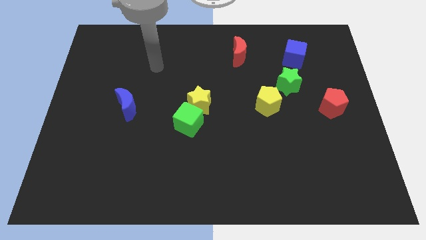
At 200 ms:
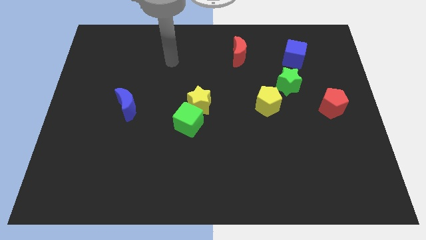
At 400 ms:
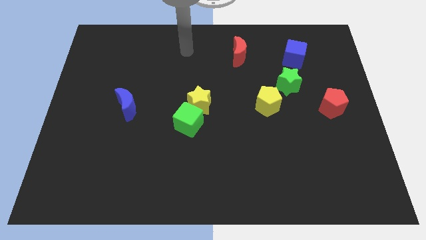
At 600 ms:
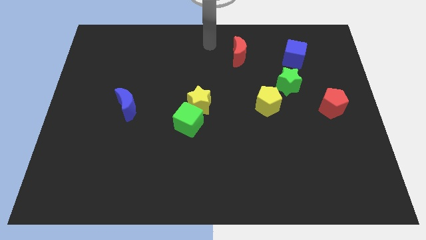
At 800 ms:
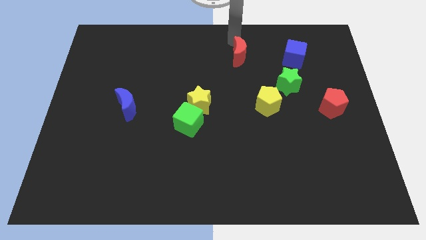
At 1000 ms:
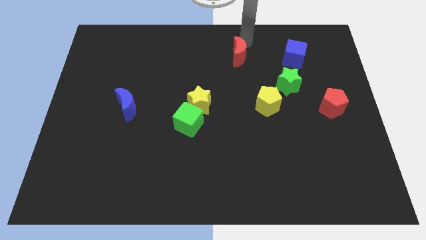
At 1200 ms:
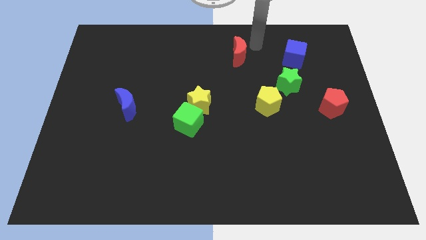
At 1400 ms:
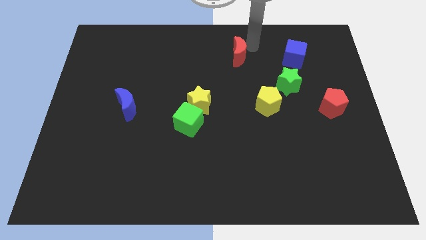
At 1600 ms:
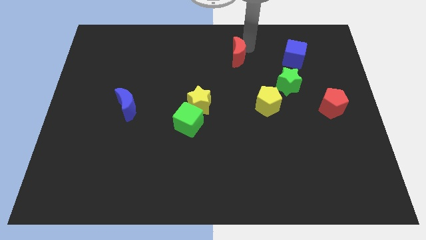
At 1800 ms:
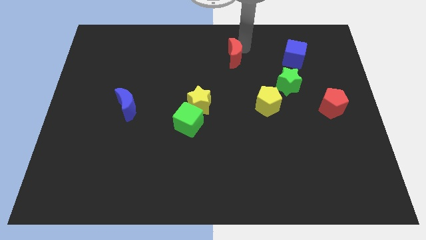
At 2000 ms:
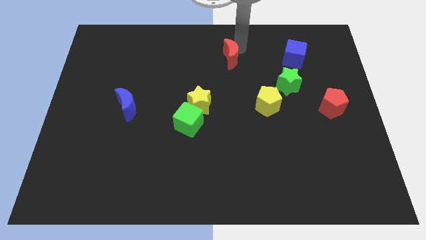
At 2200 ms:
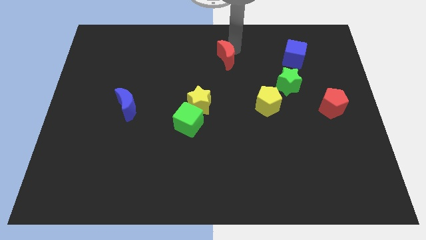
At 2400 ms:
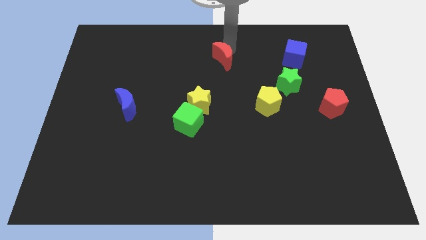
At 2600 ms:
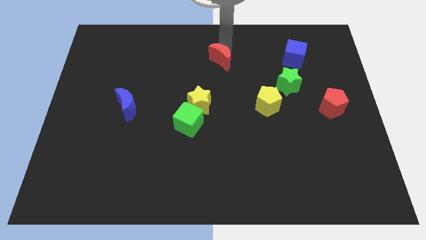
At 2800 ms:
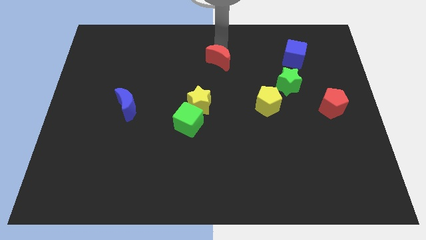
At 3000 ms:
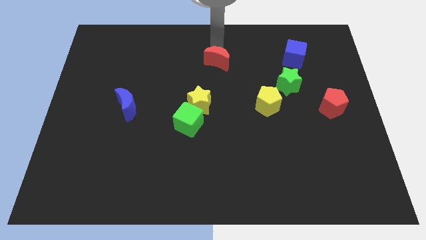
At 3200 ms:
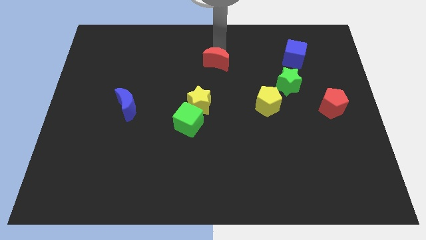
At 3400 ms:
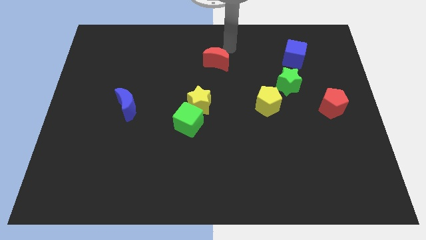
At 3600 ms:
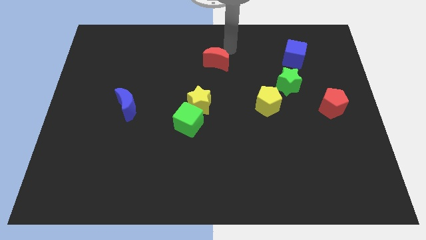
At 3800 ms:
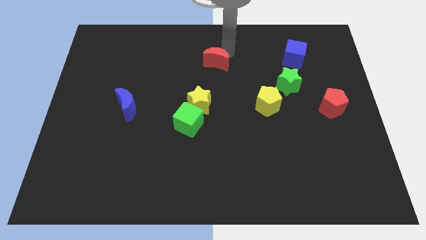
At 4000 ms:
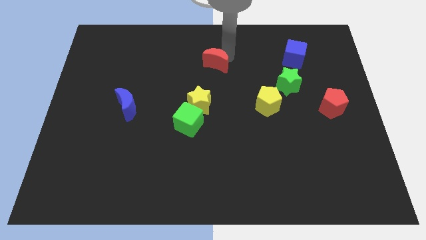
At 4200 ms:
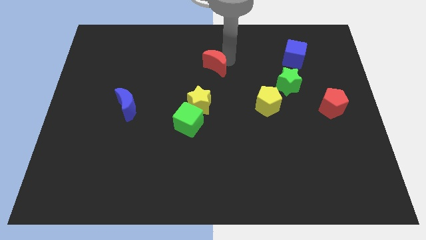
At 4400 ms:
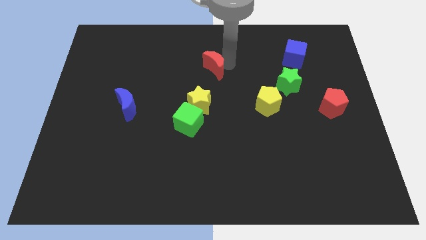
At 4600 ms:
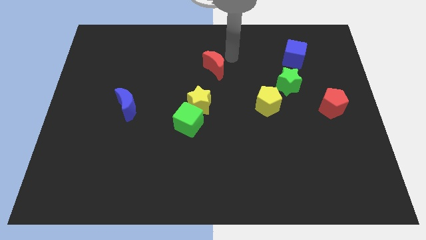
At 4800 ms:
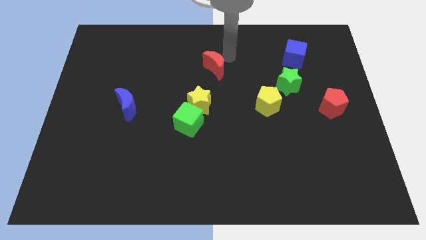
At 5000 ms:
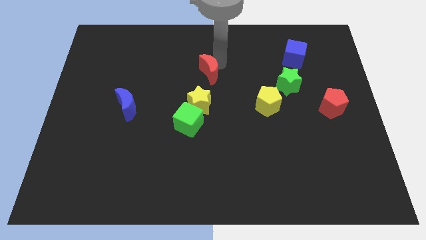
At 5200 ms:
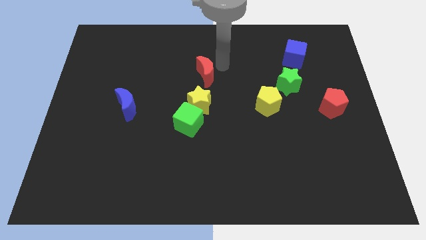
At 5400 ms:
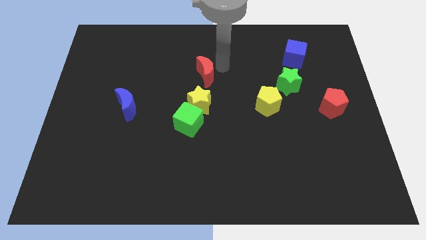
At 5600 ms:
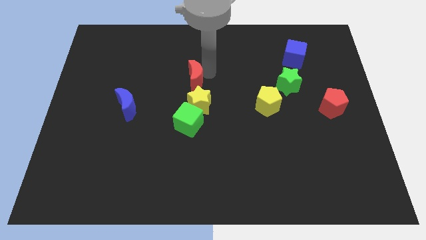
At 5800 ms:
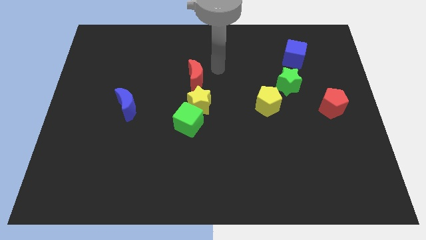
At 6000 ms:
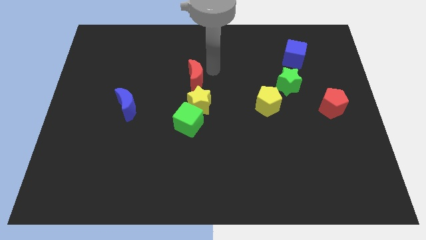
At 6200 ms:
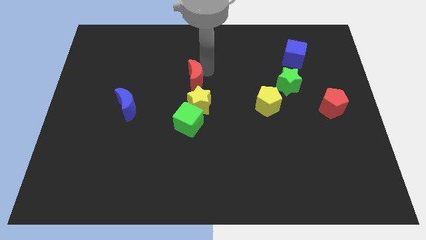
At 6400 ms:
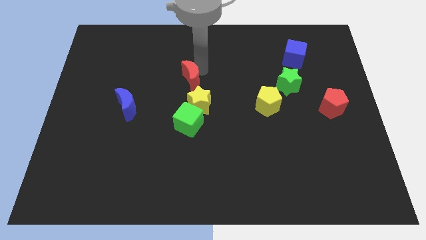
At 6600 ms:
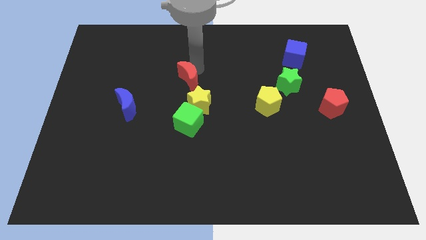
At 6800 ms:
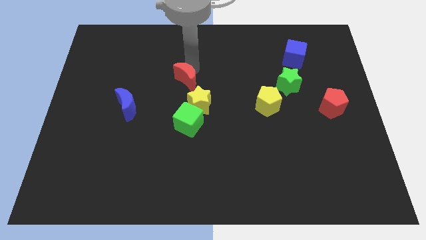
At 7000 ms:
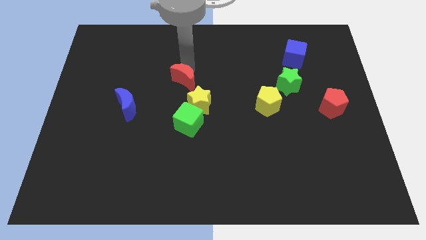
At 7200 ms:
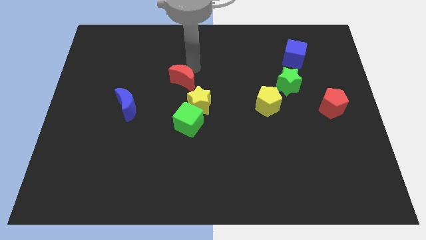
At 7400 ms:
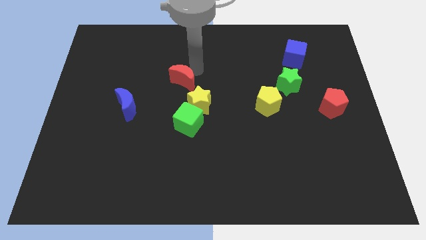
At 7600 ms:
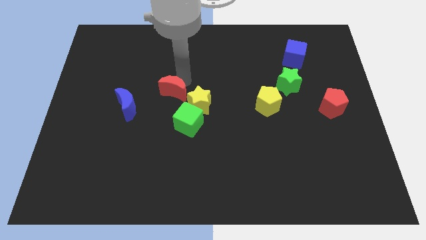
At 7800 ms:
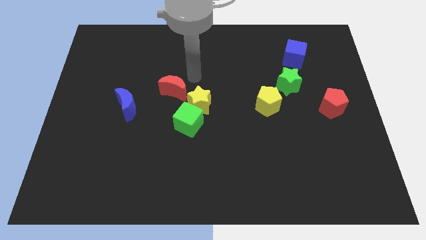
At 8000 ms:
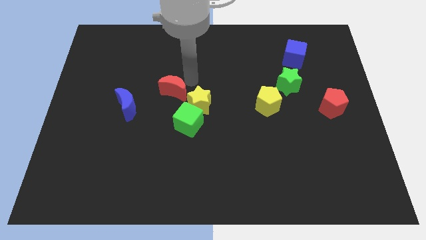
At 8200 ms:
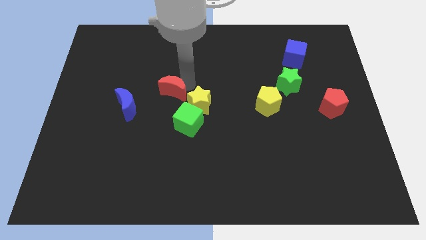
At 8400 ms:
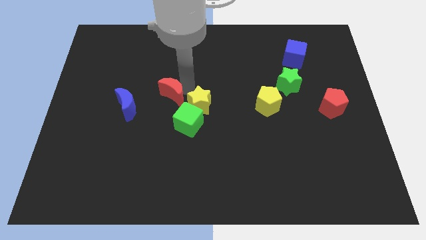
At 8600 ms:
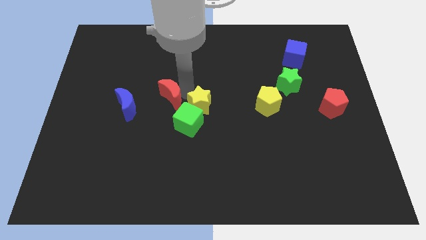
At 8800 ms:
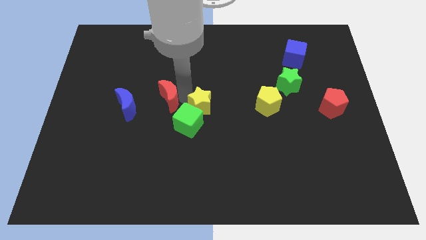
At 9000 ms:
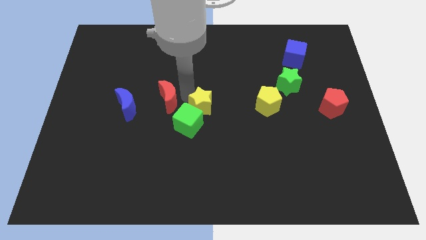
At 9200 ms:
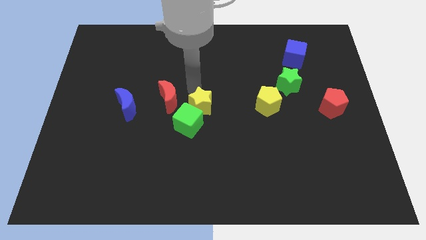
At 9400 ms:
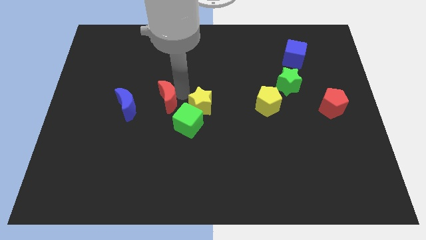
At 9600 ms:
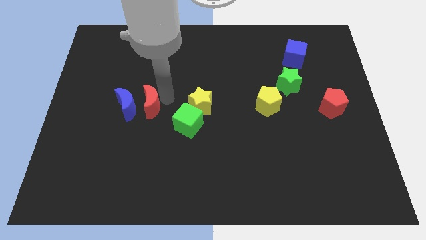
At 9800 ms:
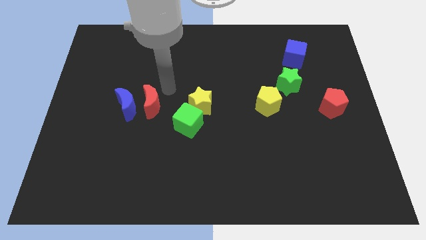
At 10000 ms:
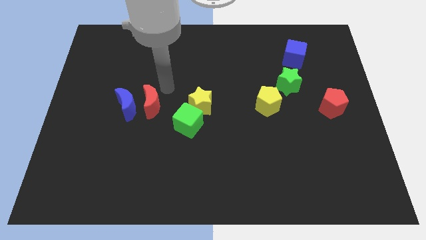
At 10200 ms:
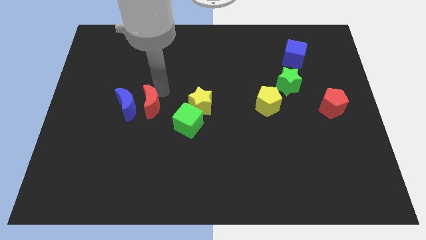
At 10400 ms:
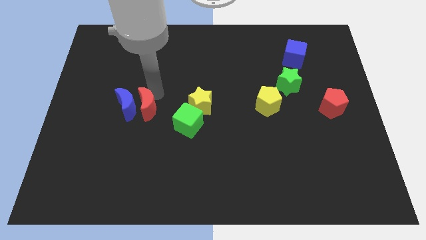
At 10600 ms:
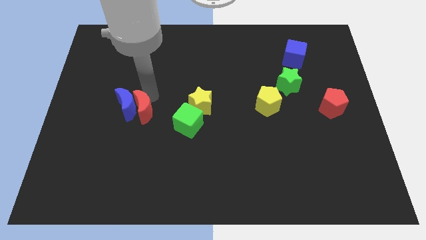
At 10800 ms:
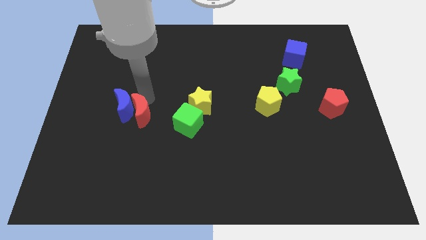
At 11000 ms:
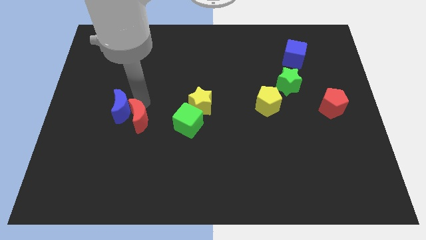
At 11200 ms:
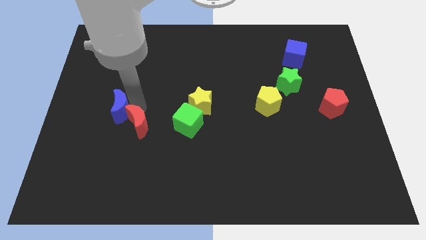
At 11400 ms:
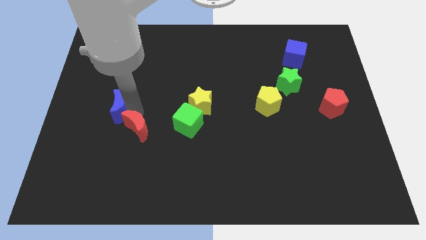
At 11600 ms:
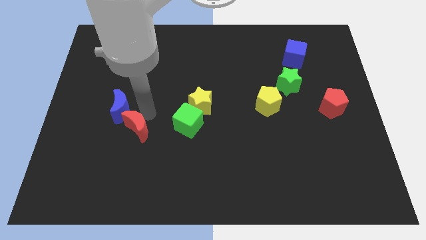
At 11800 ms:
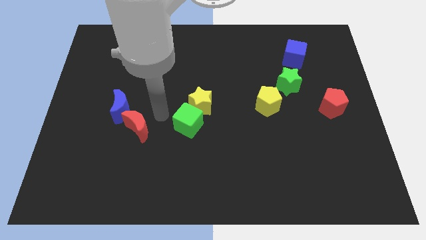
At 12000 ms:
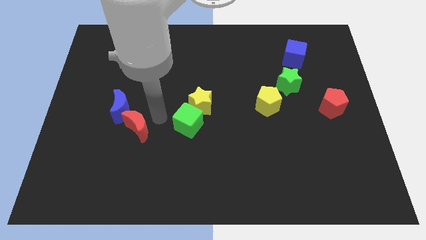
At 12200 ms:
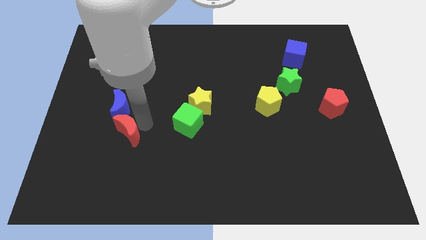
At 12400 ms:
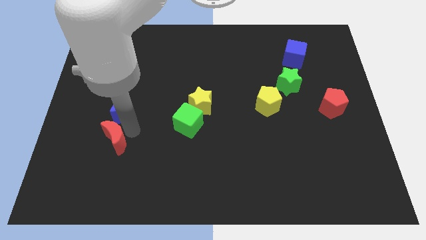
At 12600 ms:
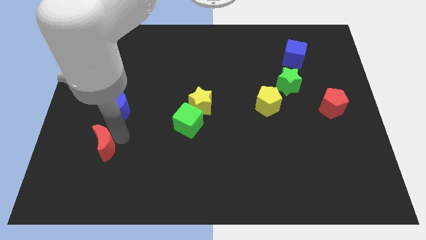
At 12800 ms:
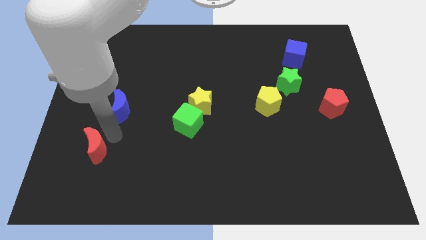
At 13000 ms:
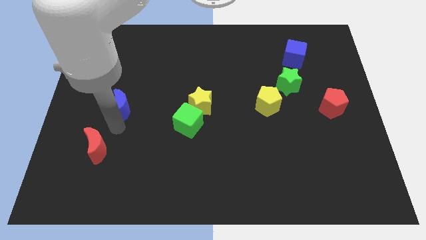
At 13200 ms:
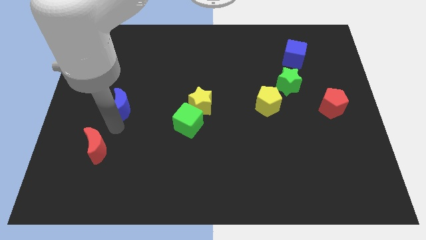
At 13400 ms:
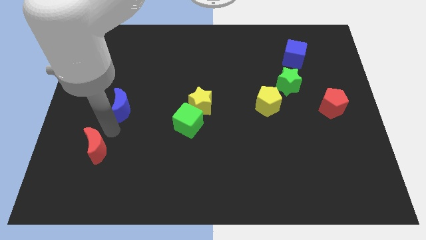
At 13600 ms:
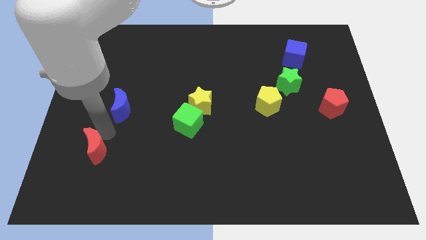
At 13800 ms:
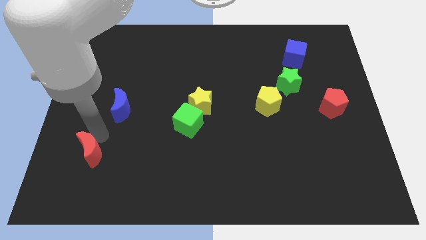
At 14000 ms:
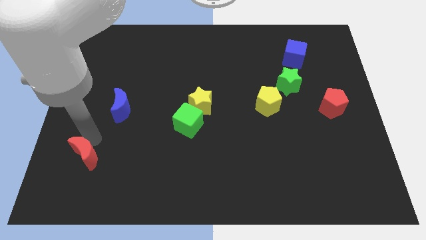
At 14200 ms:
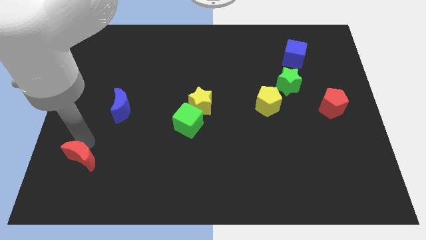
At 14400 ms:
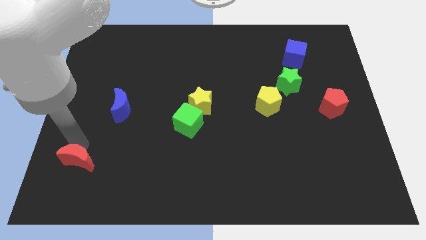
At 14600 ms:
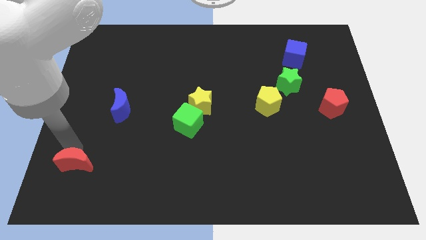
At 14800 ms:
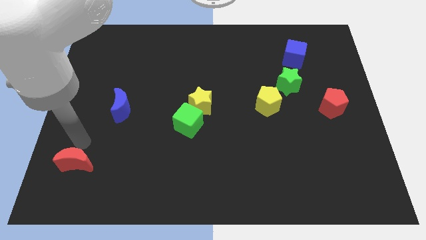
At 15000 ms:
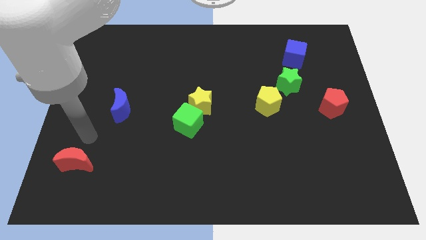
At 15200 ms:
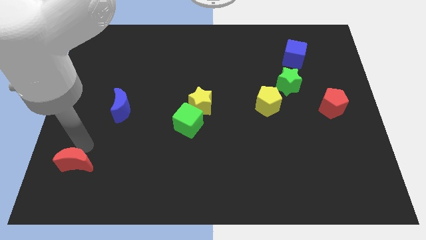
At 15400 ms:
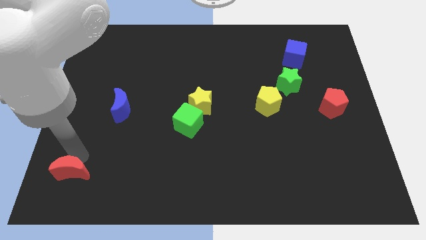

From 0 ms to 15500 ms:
move the red moon to the bottom left
